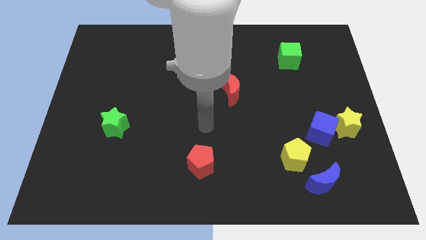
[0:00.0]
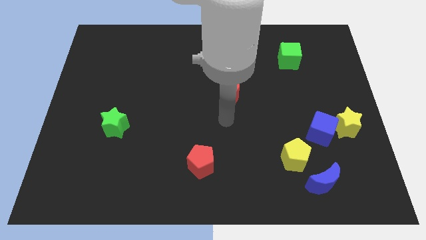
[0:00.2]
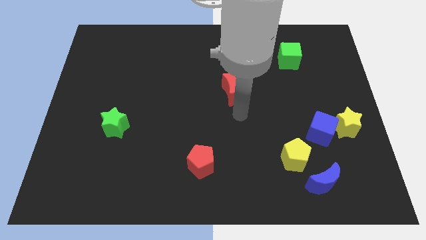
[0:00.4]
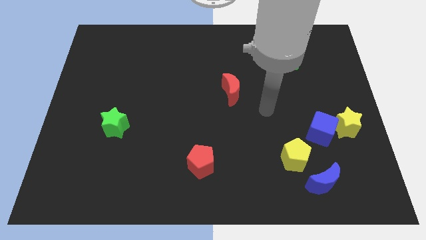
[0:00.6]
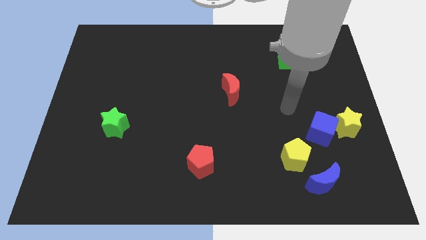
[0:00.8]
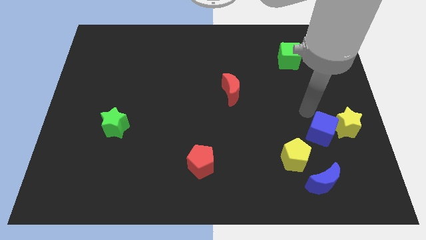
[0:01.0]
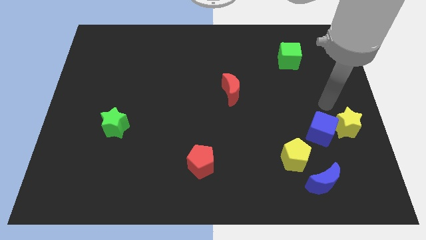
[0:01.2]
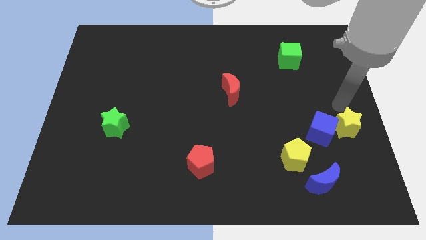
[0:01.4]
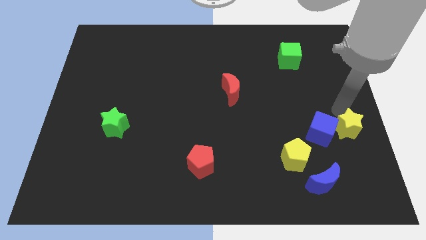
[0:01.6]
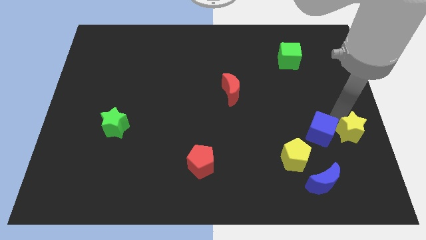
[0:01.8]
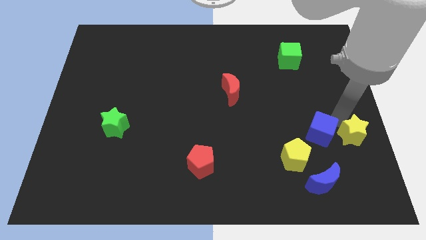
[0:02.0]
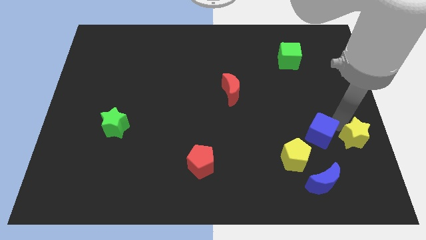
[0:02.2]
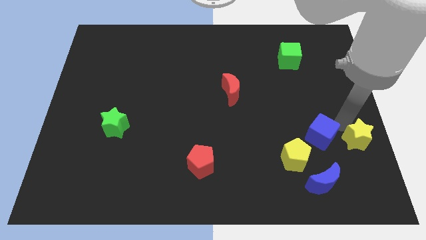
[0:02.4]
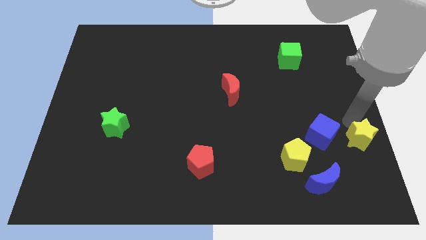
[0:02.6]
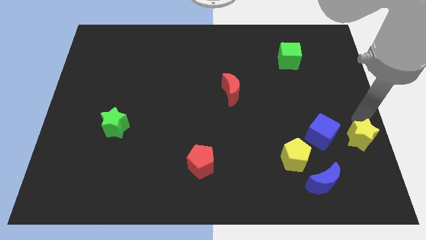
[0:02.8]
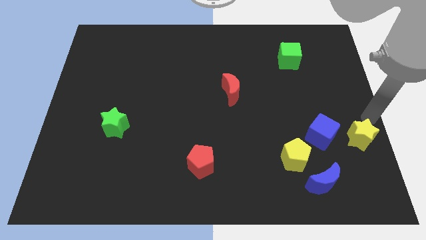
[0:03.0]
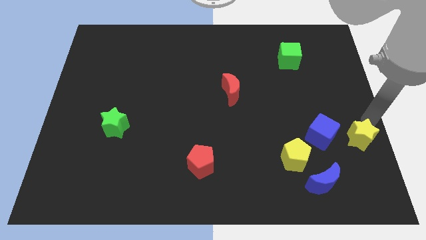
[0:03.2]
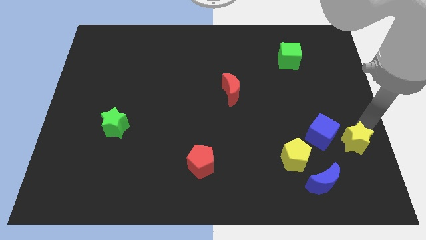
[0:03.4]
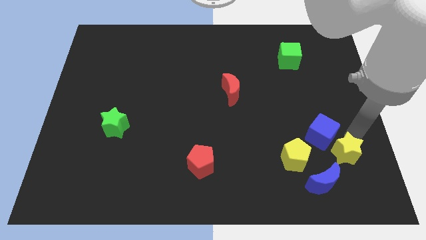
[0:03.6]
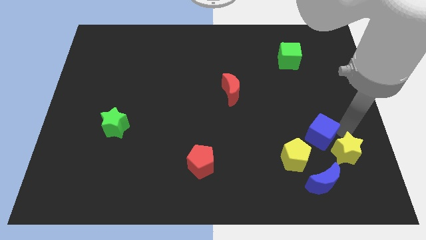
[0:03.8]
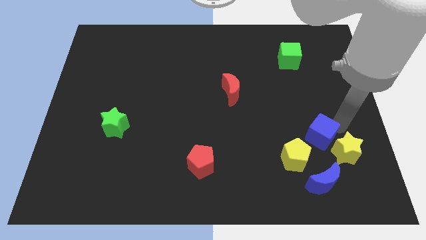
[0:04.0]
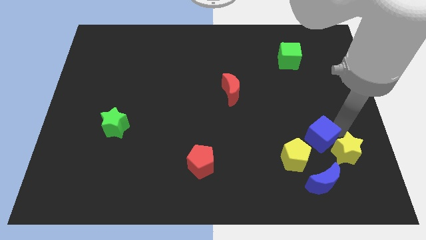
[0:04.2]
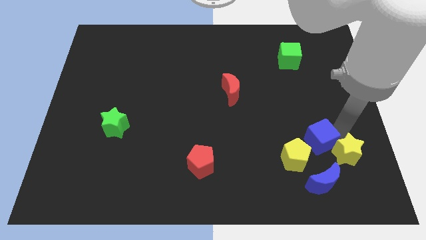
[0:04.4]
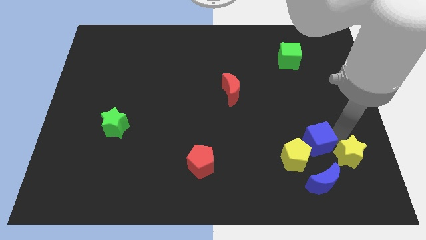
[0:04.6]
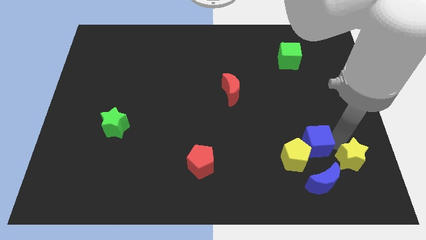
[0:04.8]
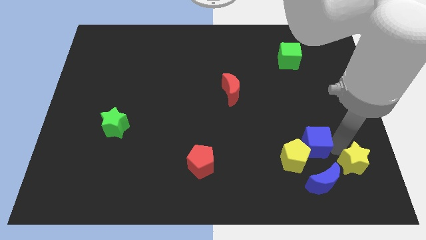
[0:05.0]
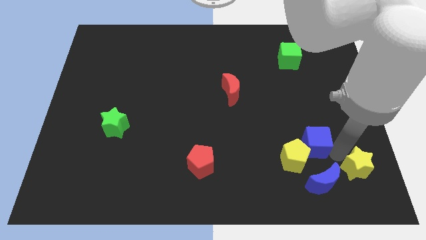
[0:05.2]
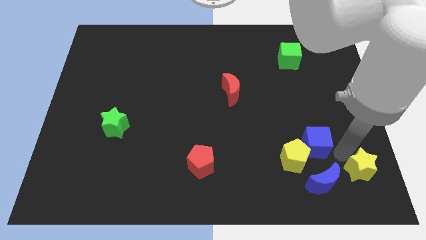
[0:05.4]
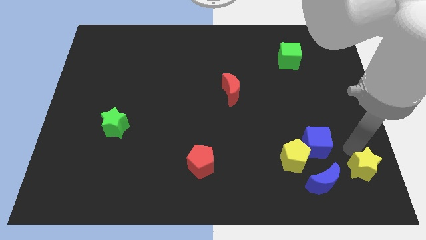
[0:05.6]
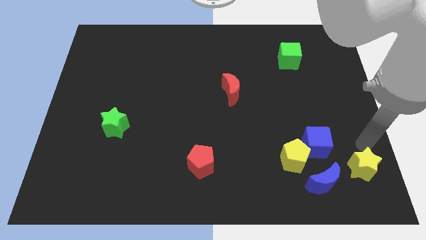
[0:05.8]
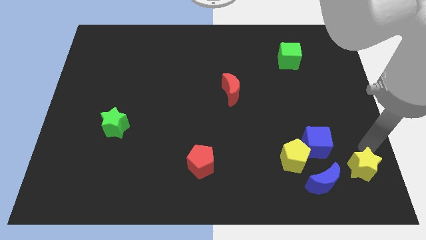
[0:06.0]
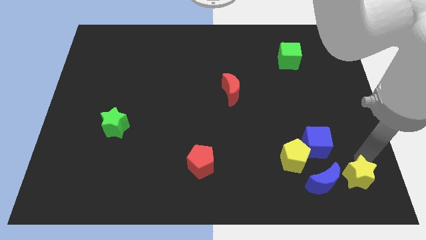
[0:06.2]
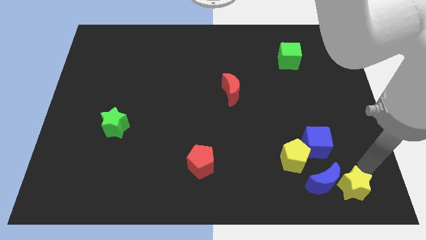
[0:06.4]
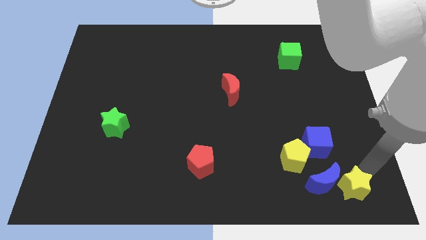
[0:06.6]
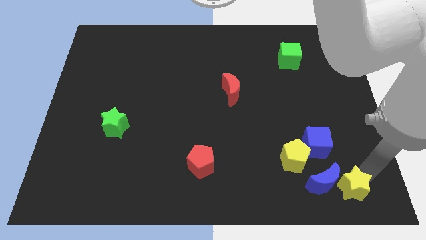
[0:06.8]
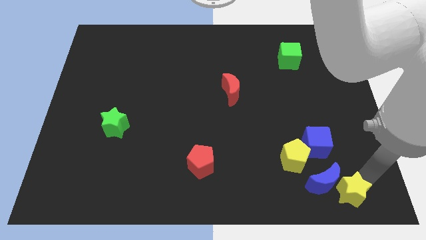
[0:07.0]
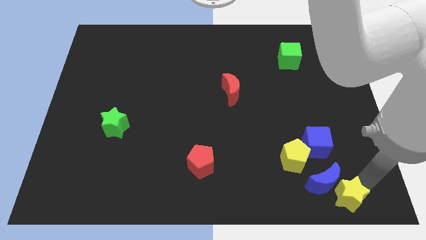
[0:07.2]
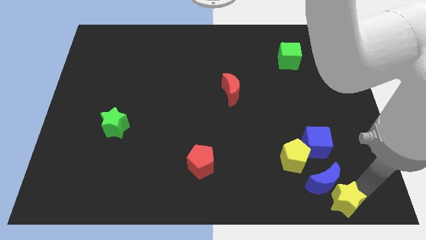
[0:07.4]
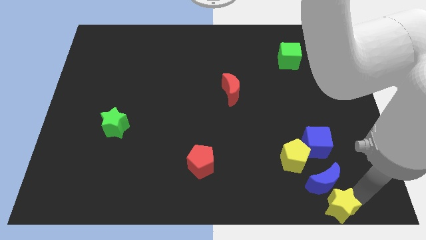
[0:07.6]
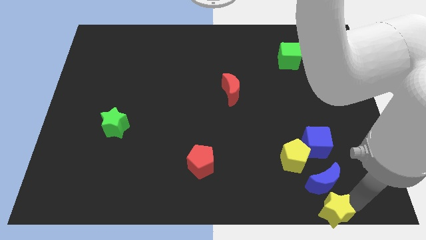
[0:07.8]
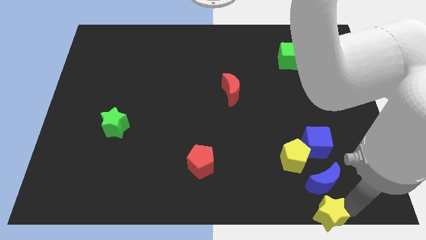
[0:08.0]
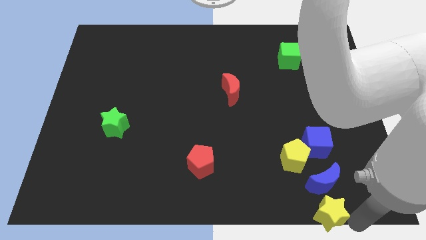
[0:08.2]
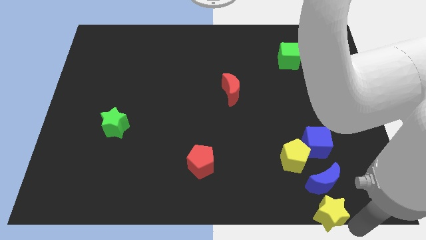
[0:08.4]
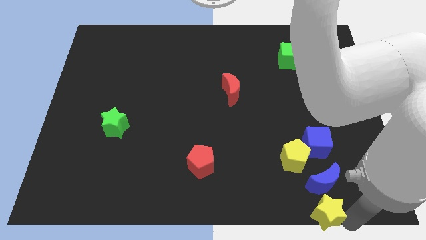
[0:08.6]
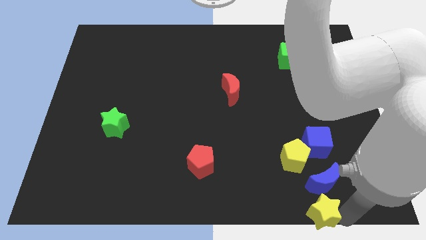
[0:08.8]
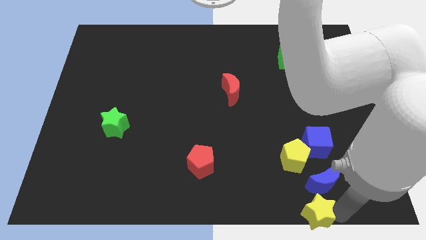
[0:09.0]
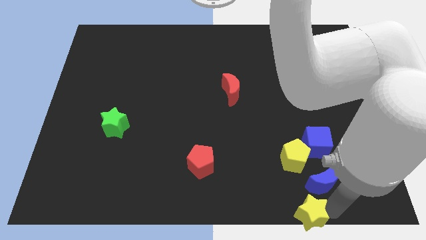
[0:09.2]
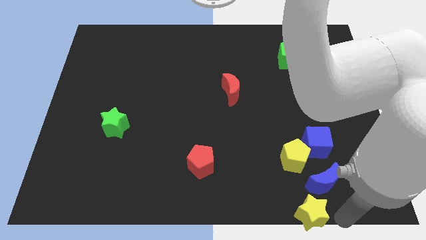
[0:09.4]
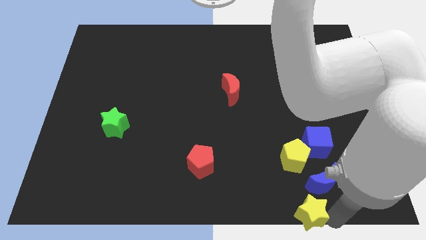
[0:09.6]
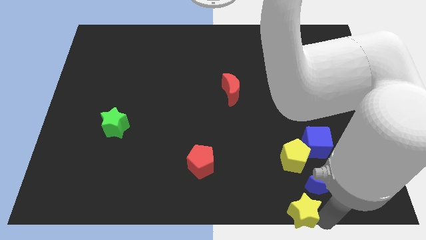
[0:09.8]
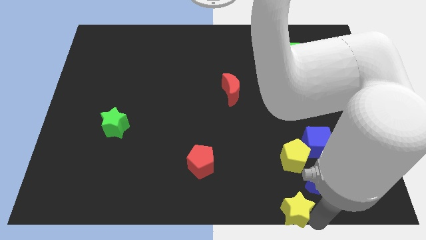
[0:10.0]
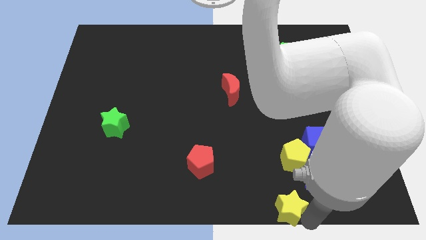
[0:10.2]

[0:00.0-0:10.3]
move the yellow star to the bottom side

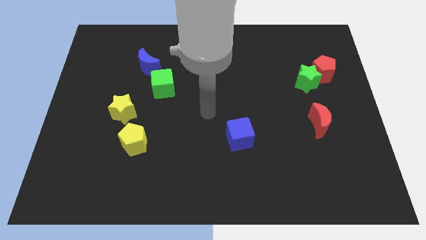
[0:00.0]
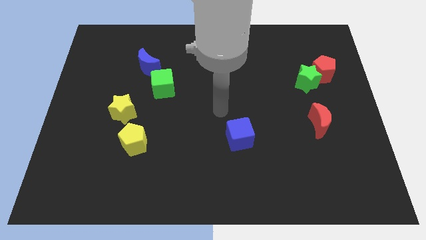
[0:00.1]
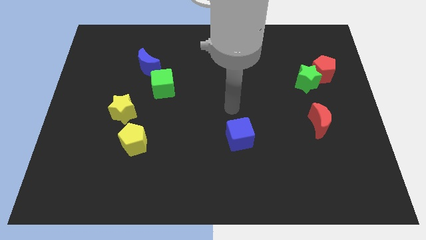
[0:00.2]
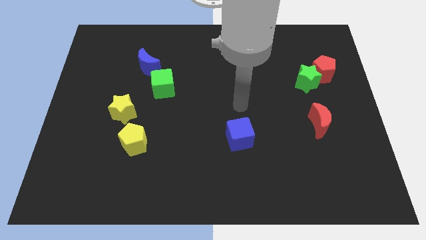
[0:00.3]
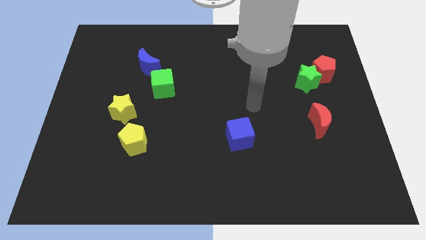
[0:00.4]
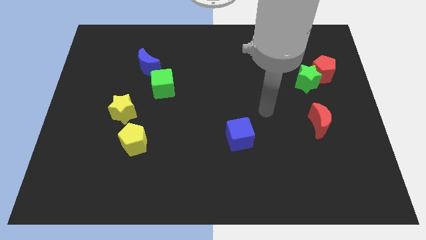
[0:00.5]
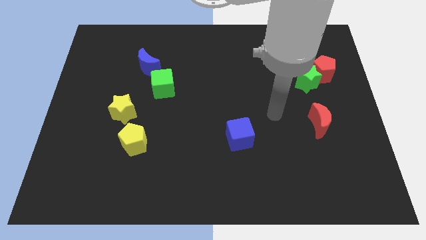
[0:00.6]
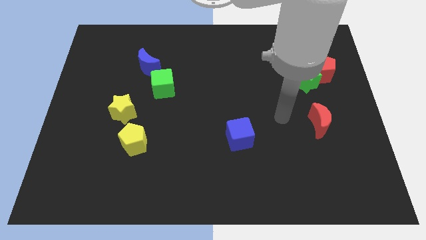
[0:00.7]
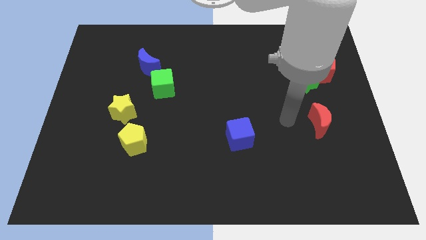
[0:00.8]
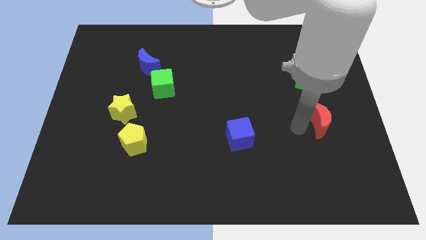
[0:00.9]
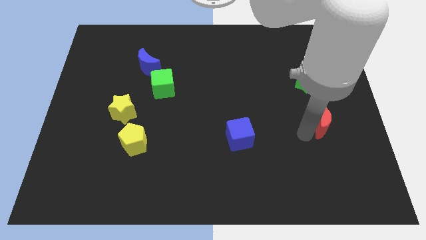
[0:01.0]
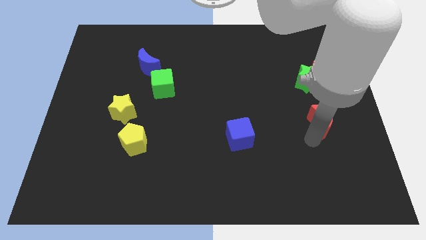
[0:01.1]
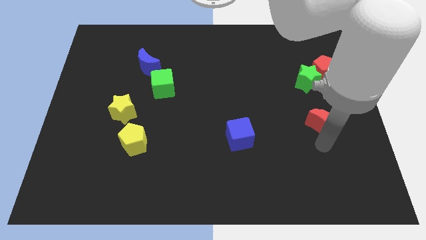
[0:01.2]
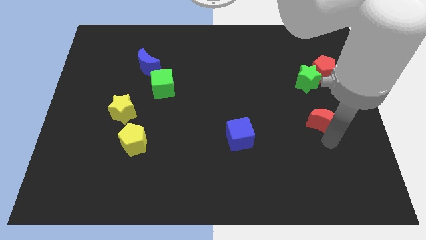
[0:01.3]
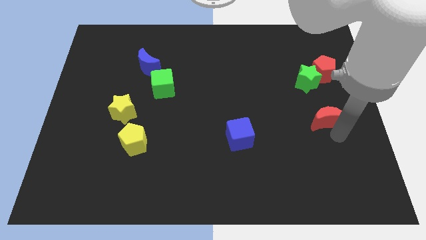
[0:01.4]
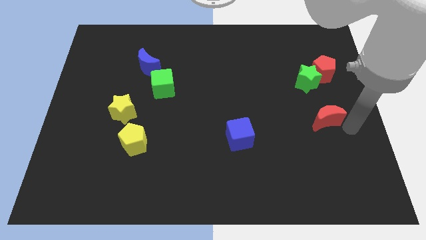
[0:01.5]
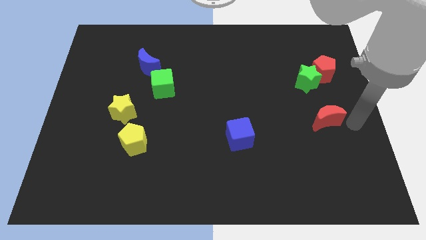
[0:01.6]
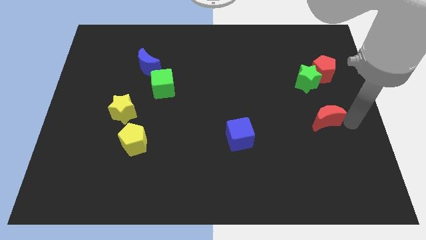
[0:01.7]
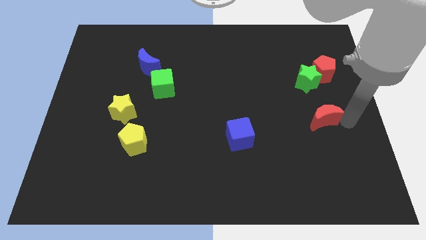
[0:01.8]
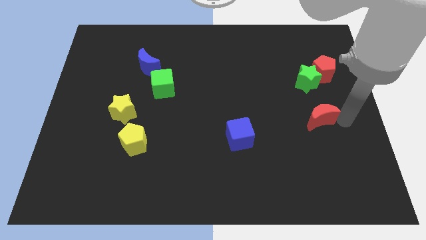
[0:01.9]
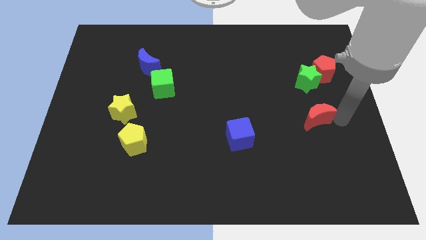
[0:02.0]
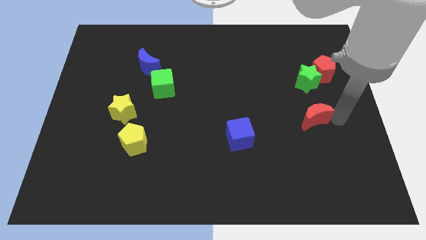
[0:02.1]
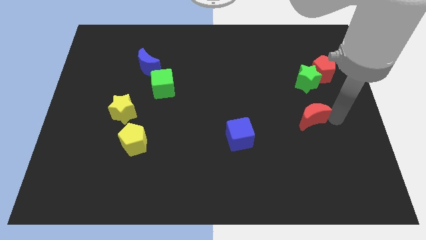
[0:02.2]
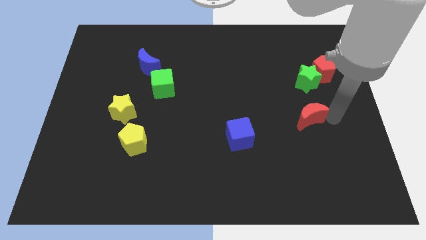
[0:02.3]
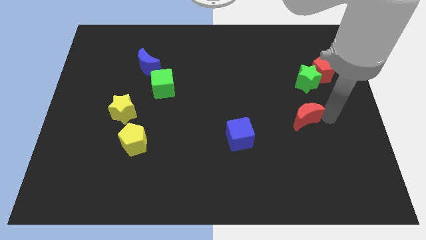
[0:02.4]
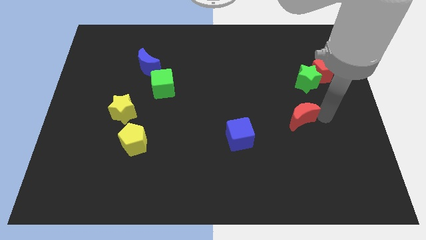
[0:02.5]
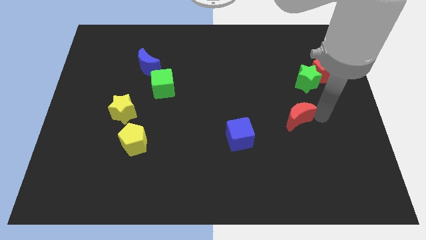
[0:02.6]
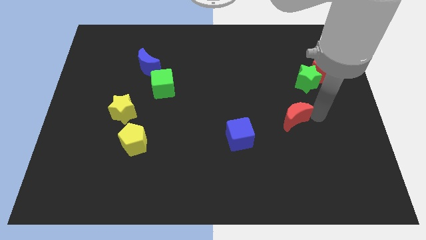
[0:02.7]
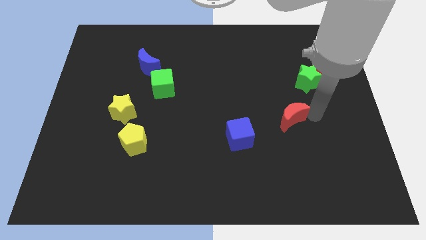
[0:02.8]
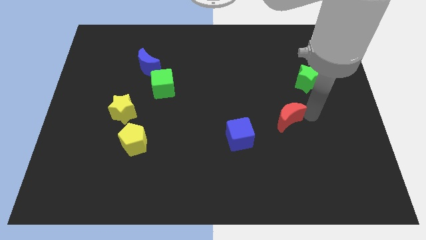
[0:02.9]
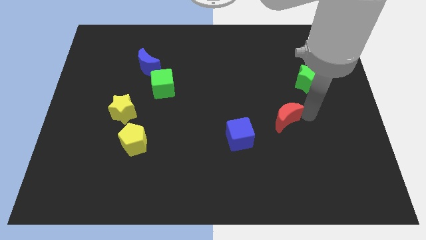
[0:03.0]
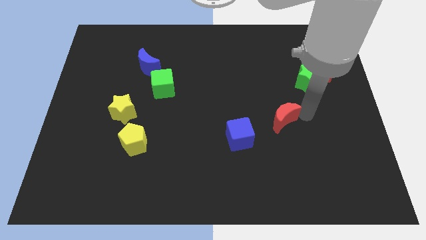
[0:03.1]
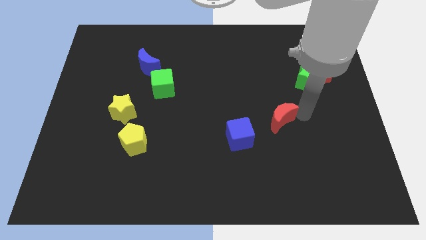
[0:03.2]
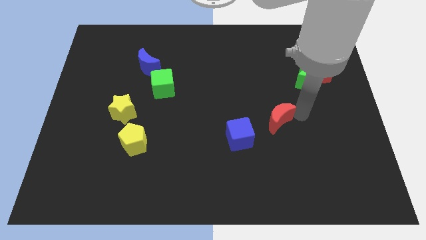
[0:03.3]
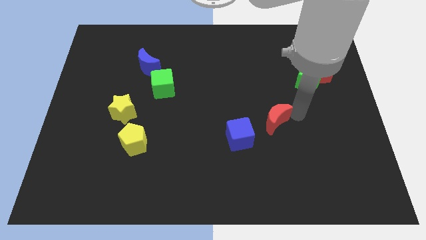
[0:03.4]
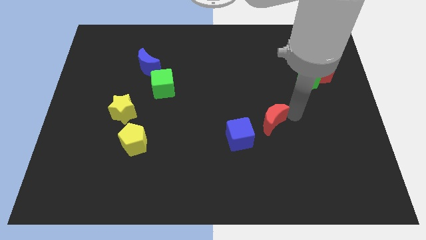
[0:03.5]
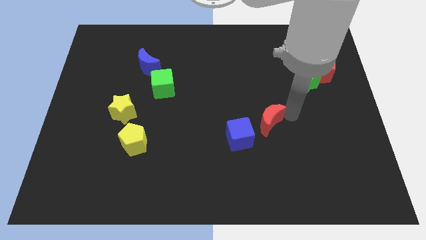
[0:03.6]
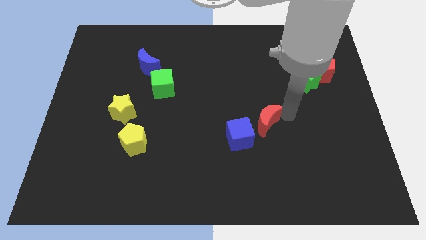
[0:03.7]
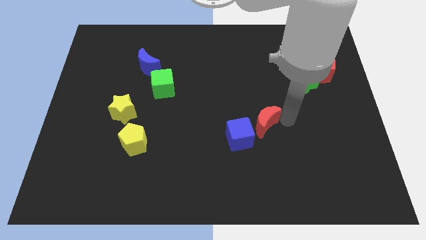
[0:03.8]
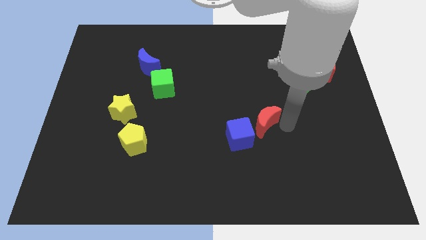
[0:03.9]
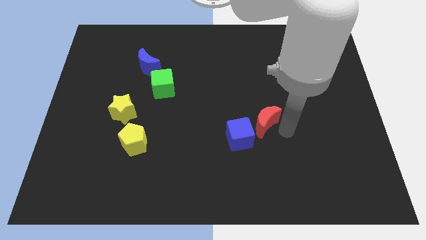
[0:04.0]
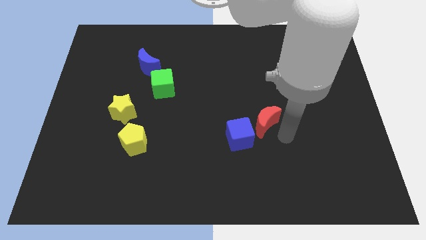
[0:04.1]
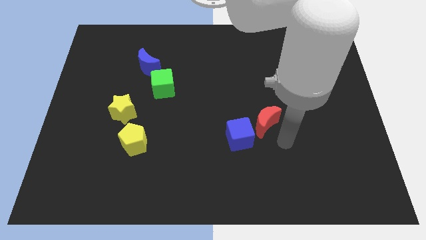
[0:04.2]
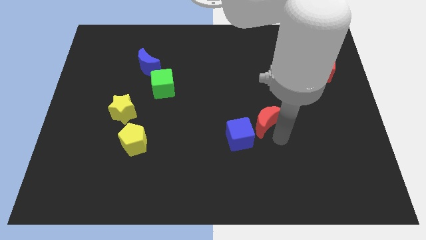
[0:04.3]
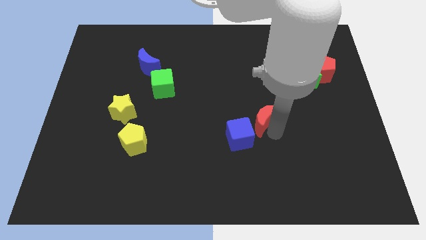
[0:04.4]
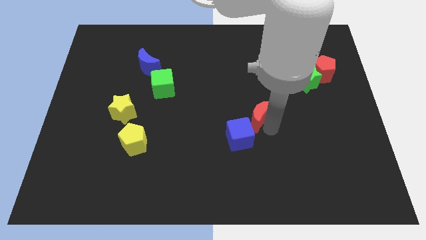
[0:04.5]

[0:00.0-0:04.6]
put the red moon to the middle of the board
